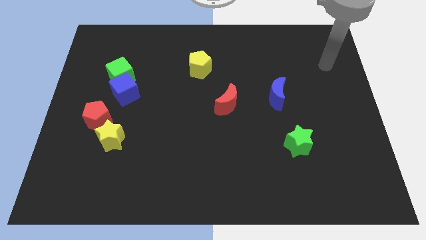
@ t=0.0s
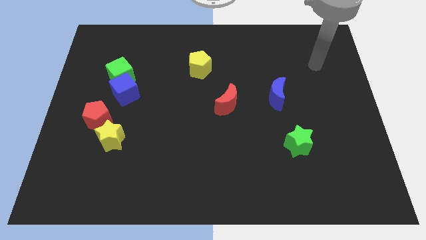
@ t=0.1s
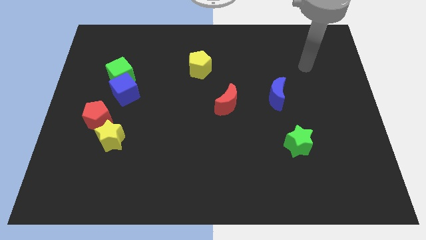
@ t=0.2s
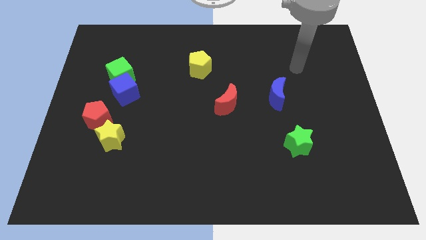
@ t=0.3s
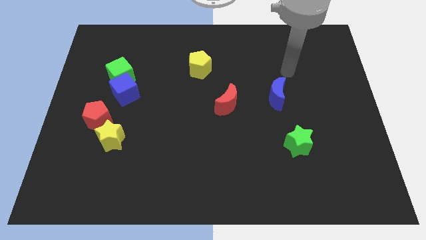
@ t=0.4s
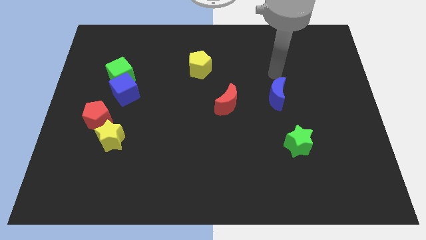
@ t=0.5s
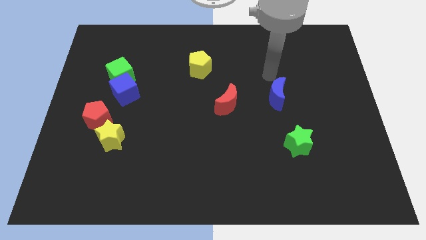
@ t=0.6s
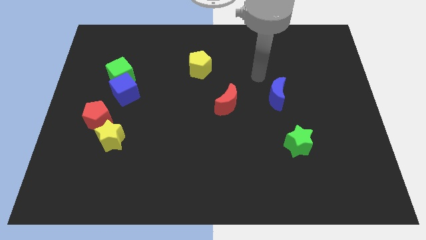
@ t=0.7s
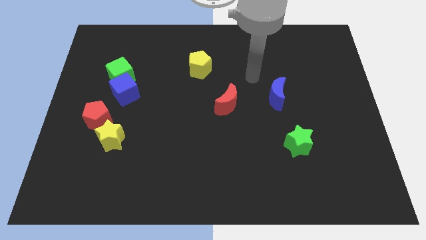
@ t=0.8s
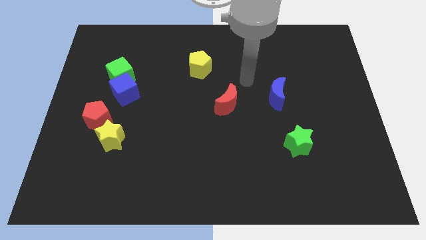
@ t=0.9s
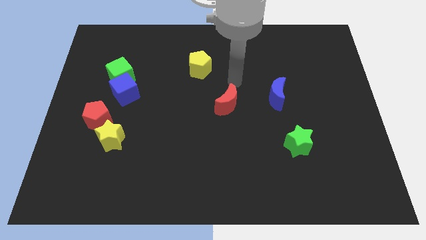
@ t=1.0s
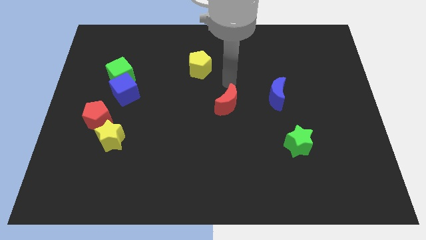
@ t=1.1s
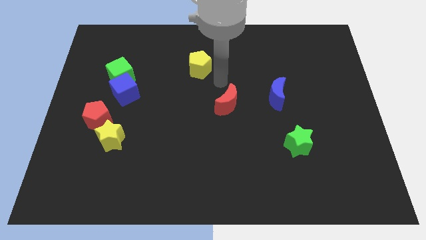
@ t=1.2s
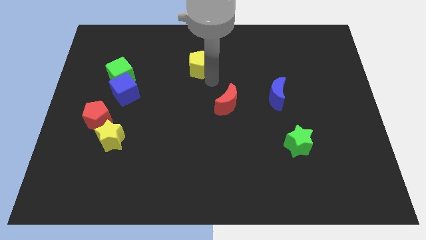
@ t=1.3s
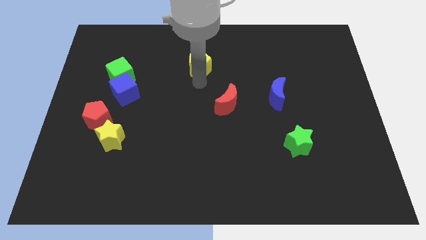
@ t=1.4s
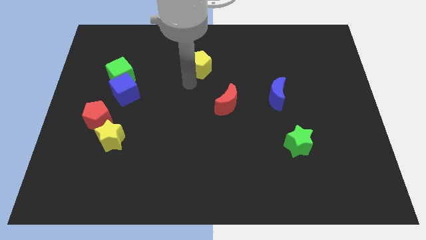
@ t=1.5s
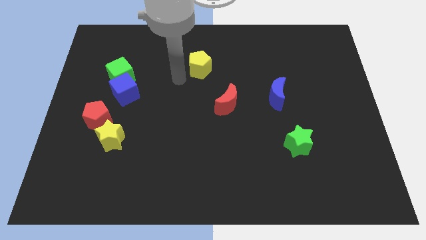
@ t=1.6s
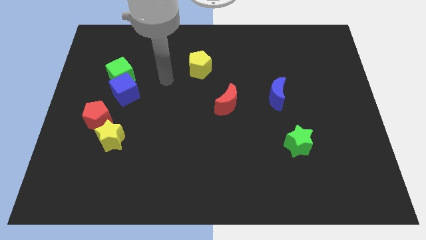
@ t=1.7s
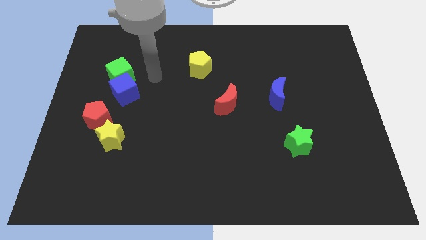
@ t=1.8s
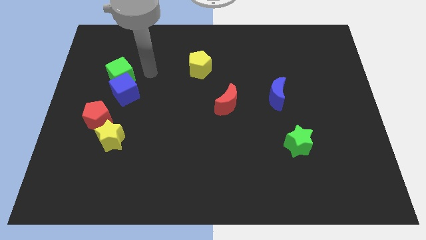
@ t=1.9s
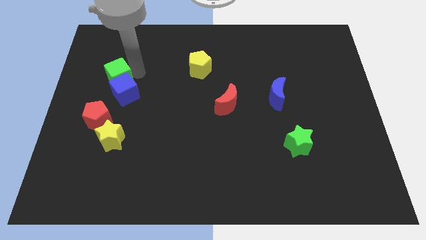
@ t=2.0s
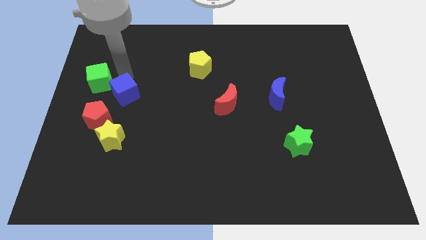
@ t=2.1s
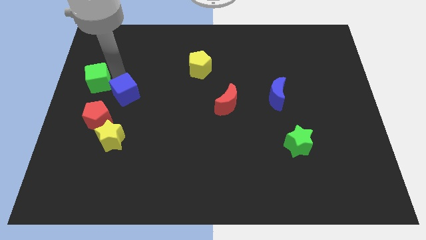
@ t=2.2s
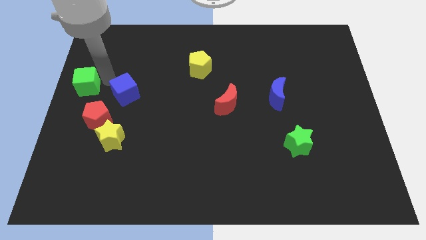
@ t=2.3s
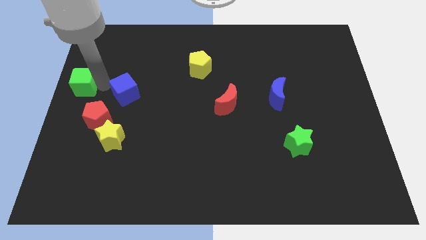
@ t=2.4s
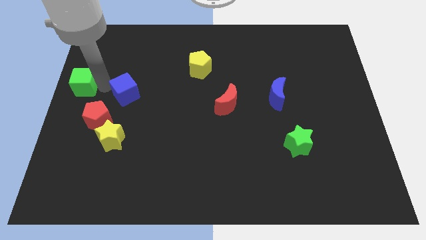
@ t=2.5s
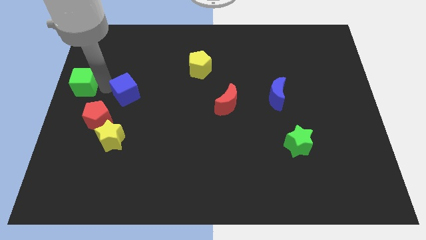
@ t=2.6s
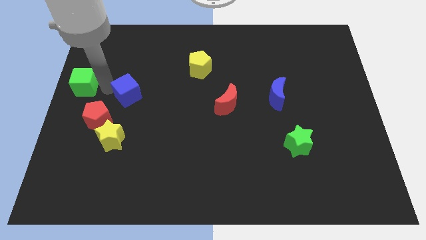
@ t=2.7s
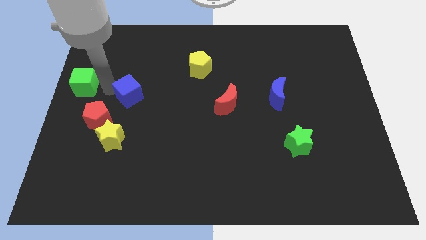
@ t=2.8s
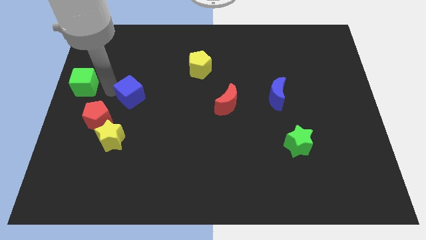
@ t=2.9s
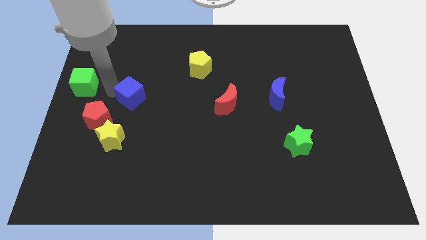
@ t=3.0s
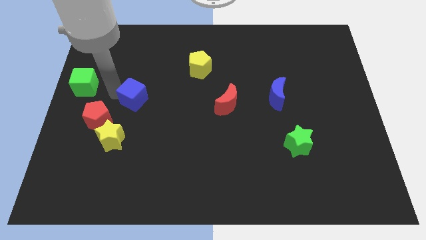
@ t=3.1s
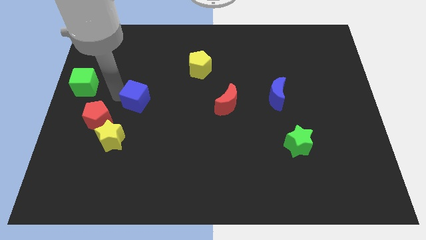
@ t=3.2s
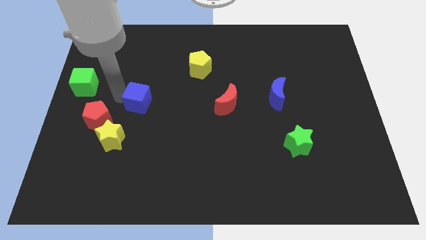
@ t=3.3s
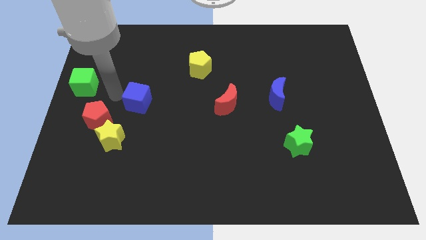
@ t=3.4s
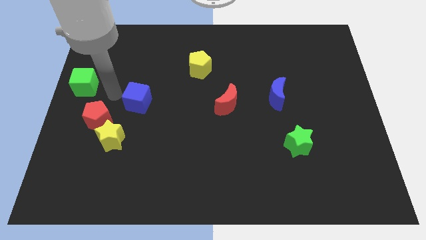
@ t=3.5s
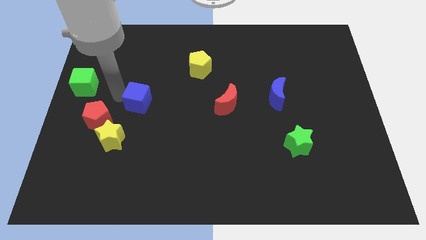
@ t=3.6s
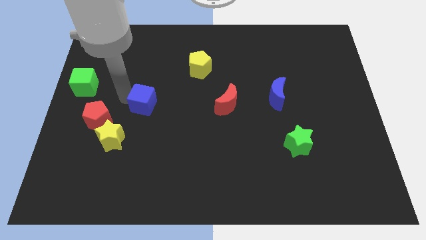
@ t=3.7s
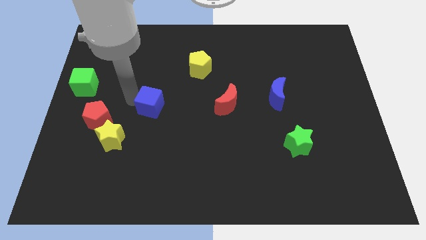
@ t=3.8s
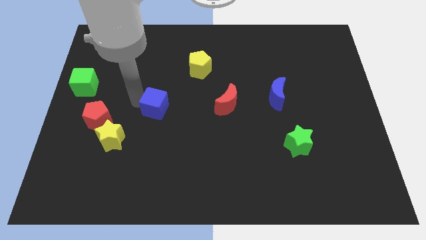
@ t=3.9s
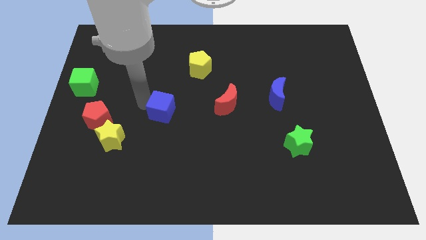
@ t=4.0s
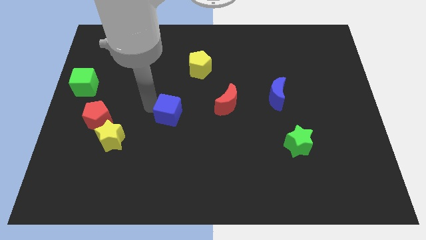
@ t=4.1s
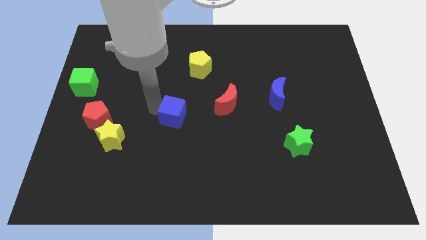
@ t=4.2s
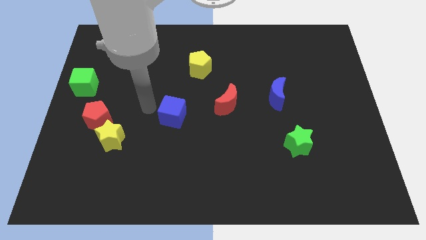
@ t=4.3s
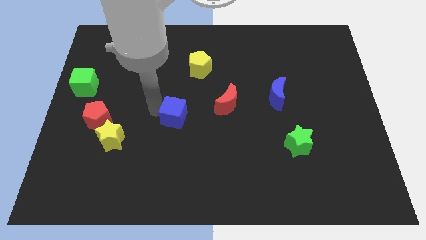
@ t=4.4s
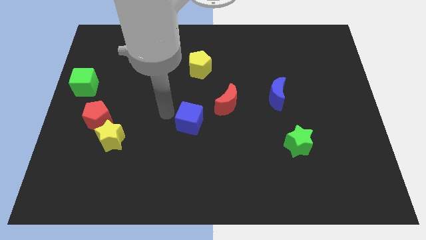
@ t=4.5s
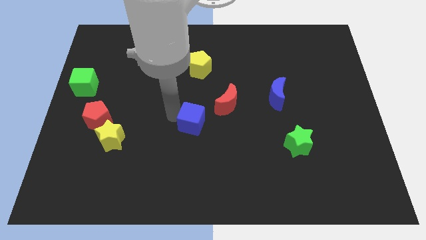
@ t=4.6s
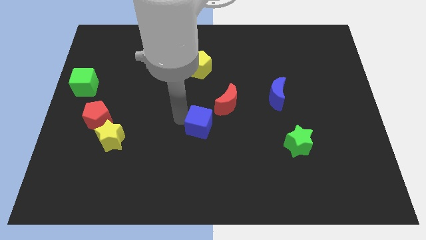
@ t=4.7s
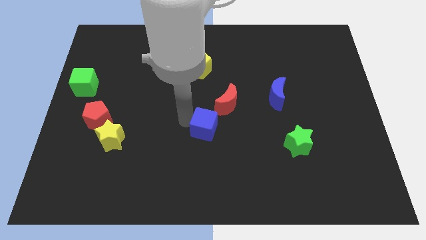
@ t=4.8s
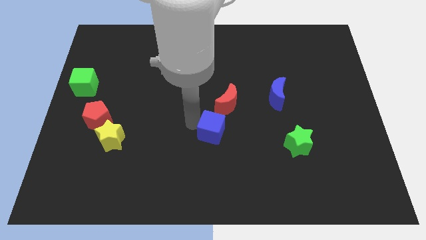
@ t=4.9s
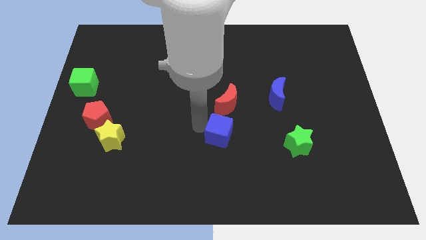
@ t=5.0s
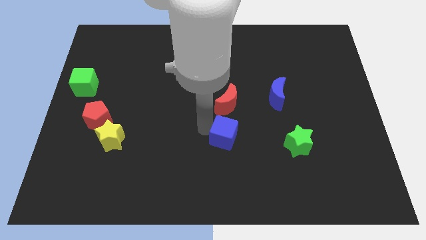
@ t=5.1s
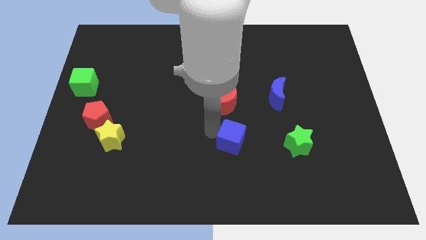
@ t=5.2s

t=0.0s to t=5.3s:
push the blue cube to the left of the green star

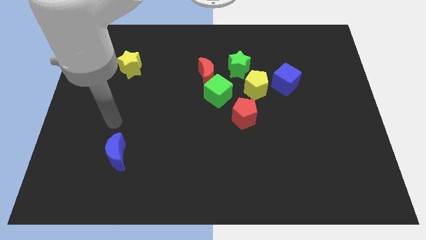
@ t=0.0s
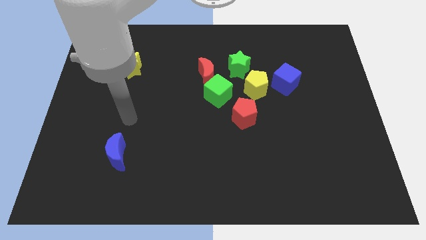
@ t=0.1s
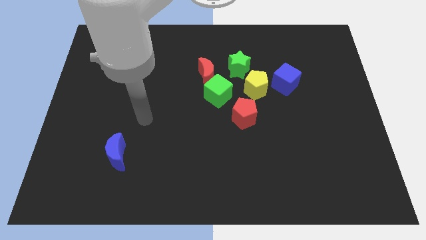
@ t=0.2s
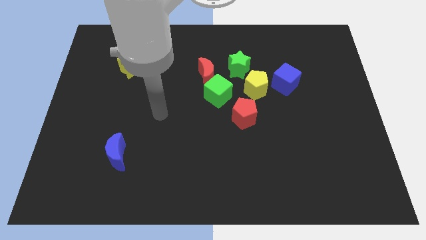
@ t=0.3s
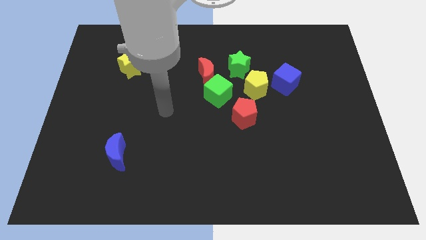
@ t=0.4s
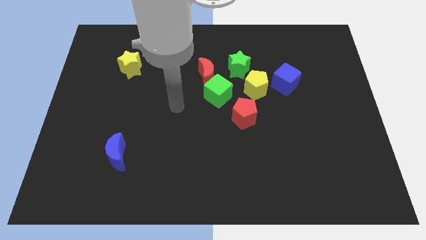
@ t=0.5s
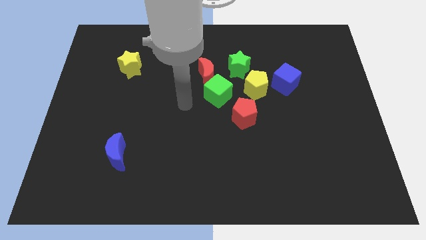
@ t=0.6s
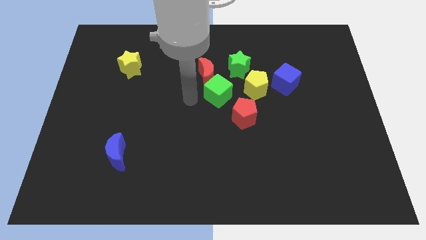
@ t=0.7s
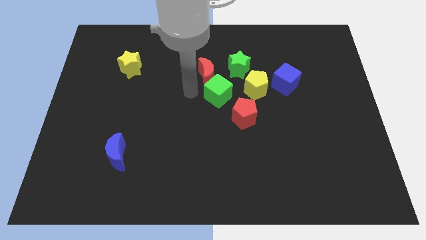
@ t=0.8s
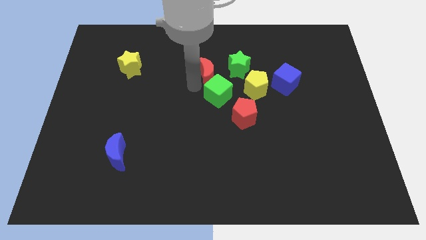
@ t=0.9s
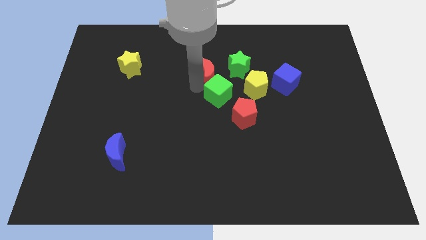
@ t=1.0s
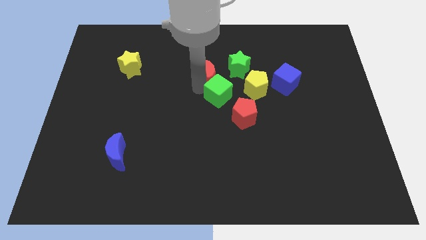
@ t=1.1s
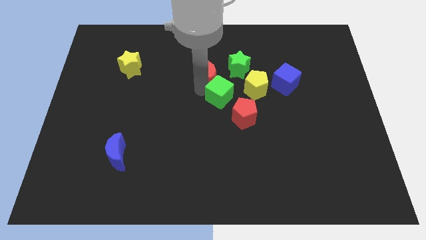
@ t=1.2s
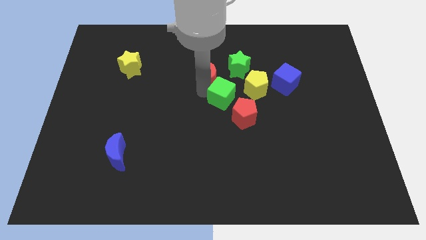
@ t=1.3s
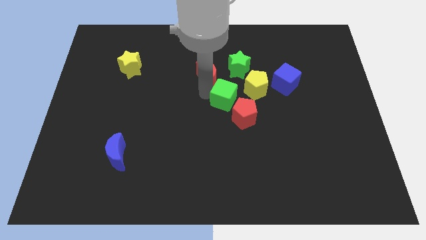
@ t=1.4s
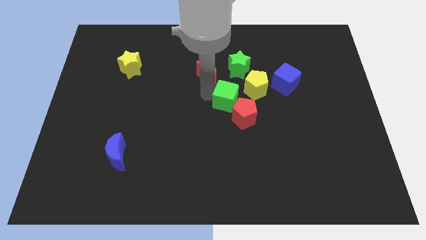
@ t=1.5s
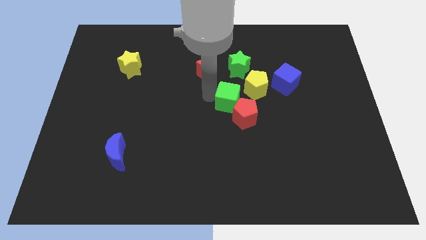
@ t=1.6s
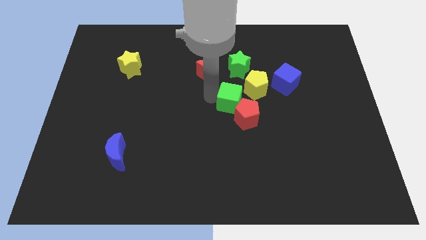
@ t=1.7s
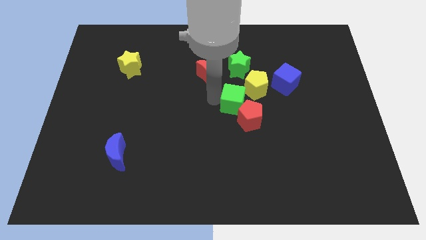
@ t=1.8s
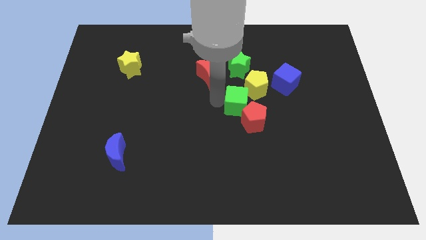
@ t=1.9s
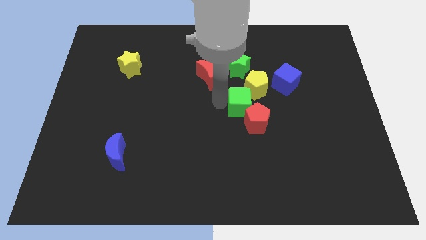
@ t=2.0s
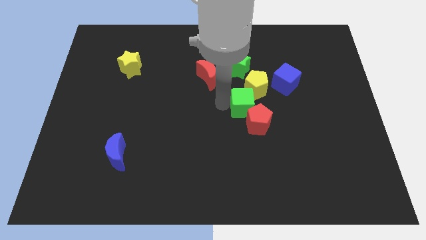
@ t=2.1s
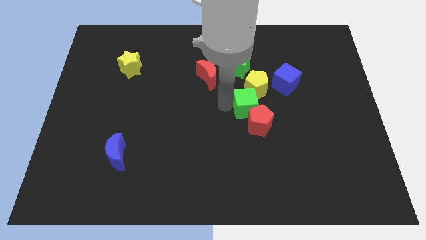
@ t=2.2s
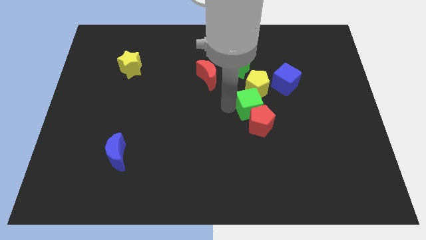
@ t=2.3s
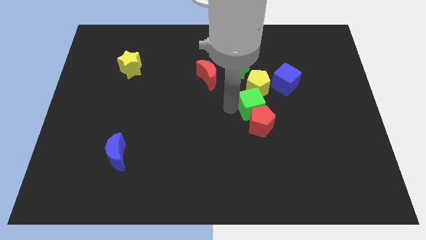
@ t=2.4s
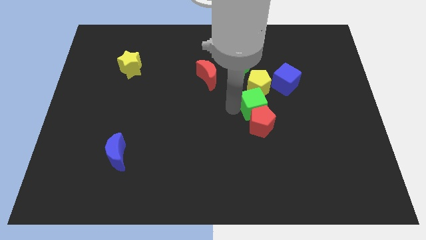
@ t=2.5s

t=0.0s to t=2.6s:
push the green cube to the top right side of the red pentagon
